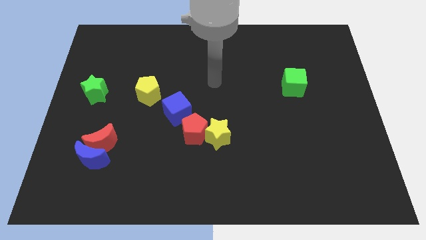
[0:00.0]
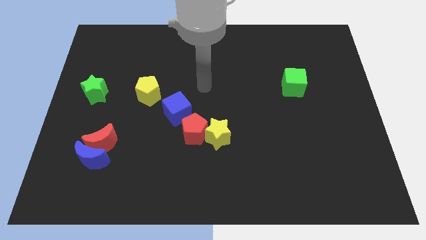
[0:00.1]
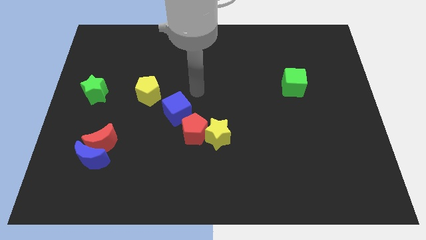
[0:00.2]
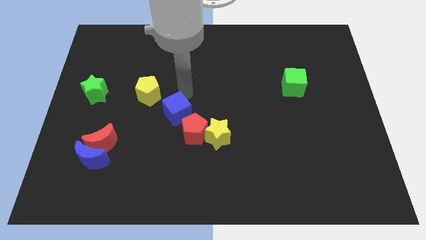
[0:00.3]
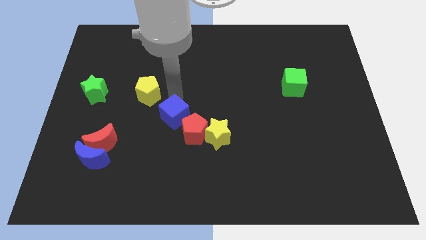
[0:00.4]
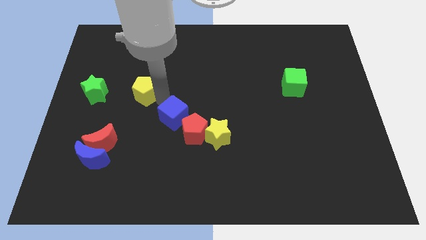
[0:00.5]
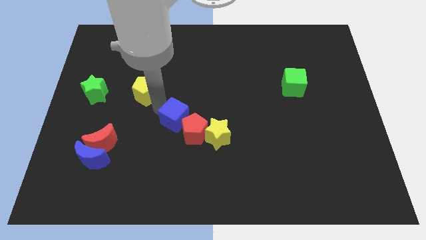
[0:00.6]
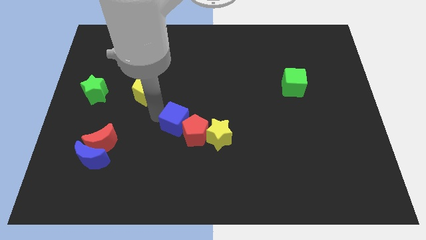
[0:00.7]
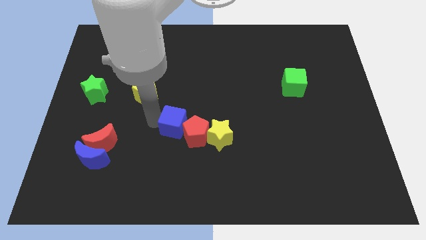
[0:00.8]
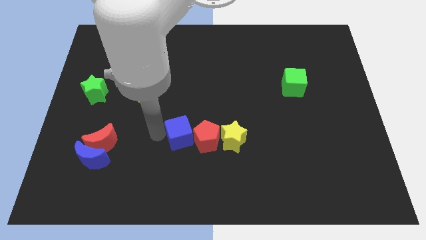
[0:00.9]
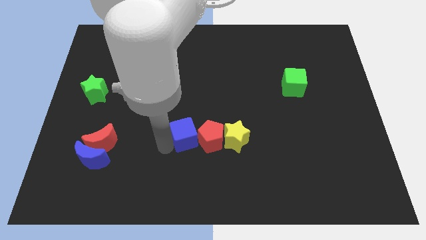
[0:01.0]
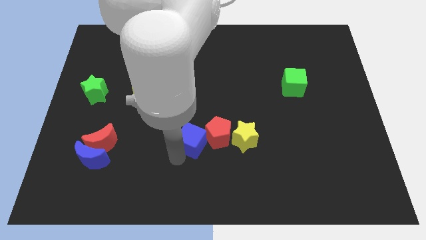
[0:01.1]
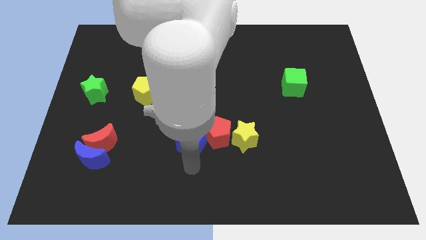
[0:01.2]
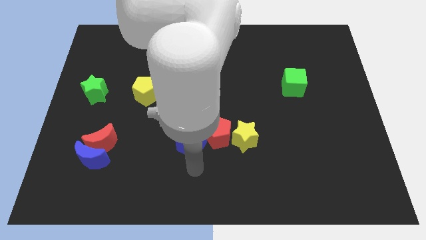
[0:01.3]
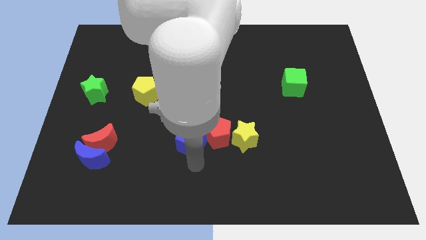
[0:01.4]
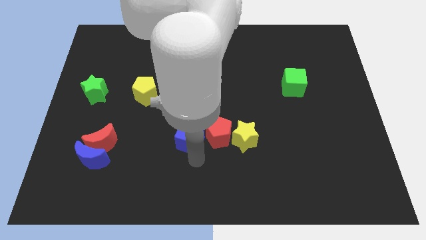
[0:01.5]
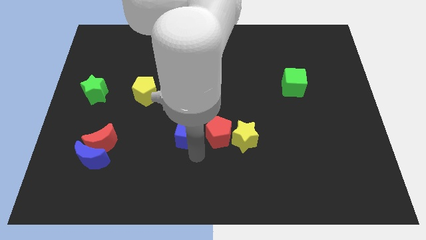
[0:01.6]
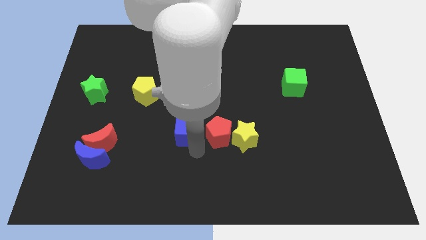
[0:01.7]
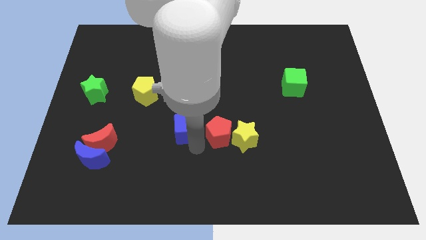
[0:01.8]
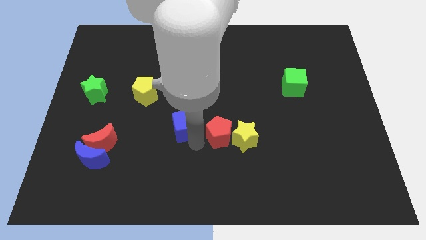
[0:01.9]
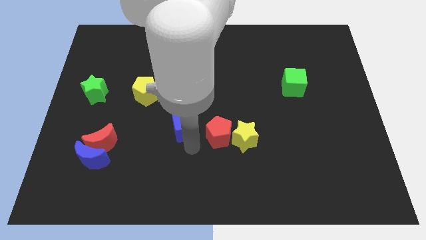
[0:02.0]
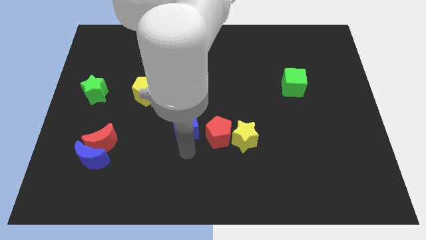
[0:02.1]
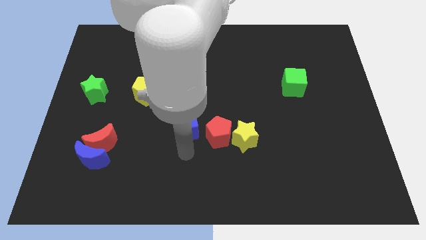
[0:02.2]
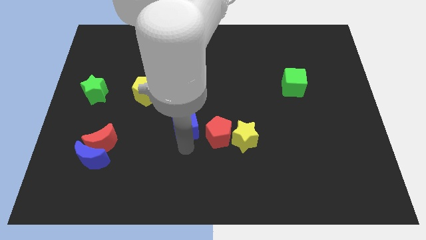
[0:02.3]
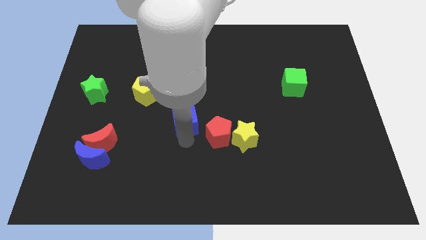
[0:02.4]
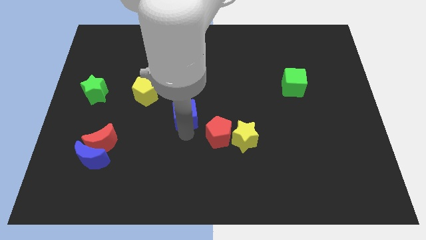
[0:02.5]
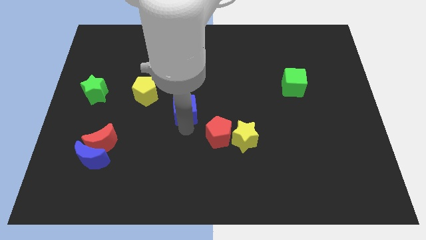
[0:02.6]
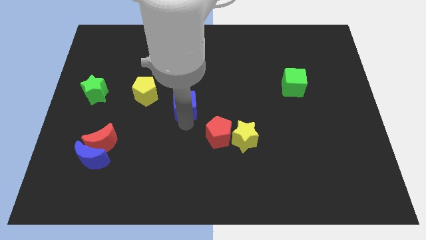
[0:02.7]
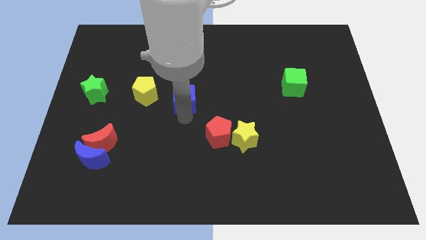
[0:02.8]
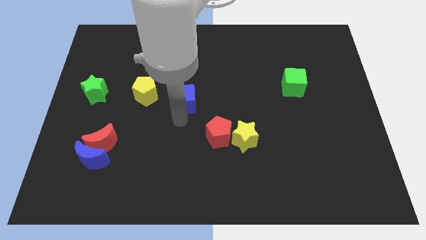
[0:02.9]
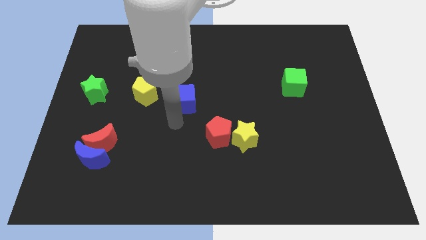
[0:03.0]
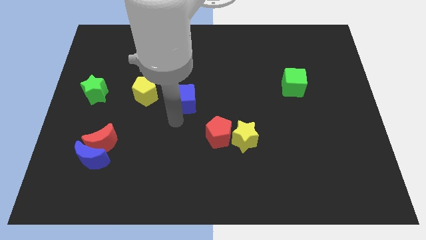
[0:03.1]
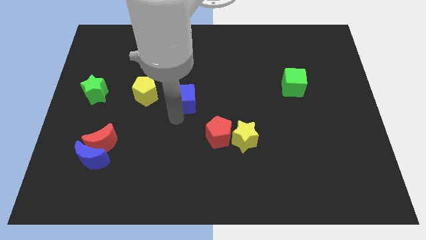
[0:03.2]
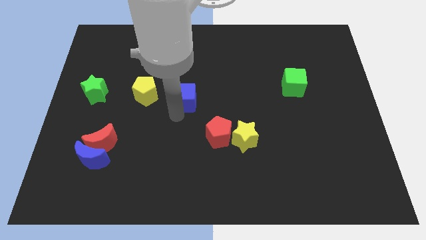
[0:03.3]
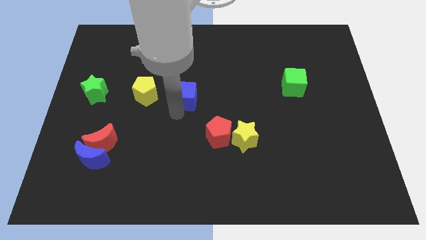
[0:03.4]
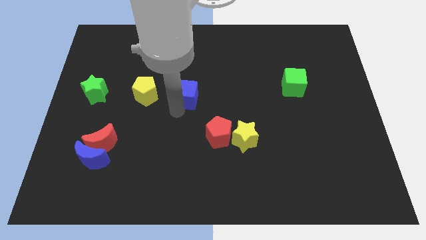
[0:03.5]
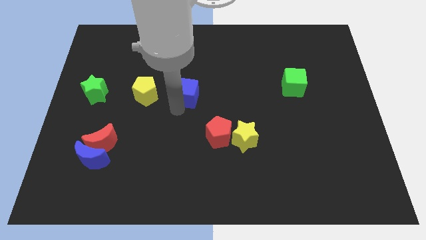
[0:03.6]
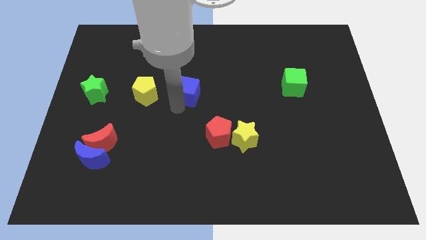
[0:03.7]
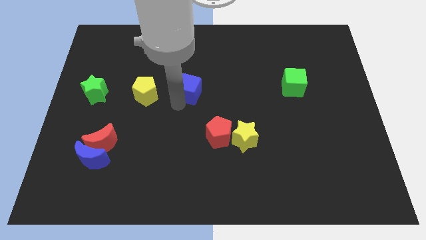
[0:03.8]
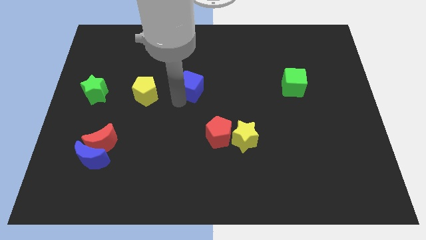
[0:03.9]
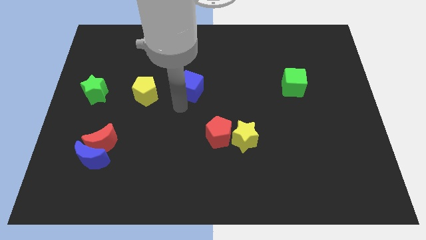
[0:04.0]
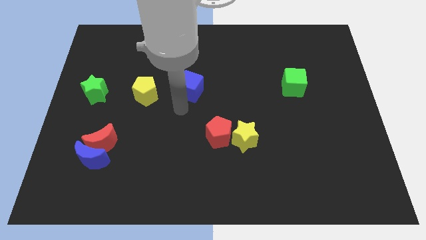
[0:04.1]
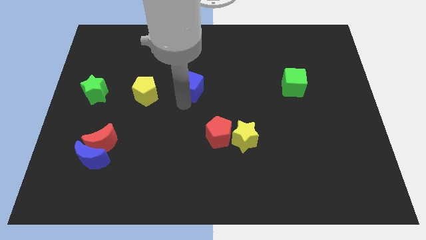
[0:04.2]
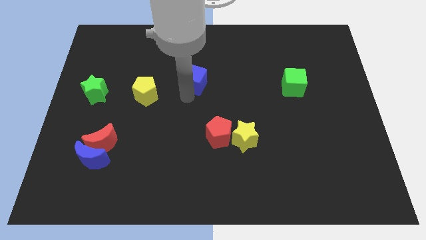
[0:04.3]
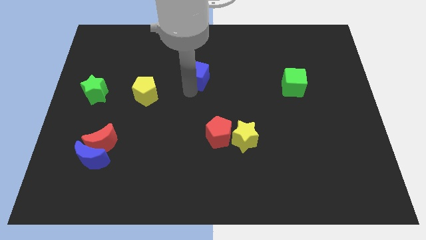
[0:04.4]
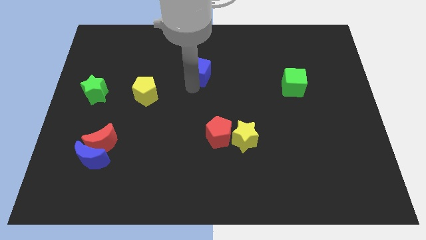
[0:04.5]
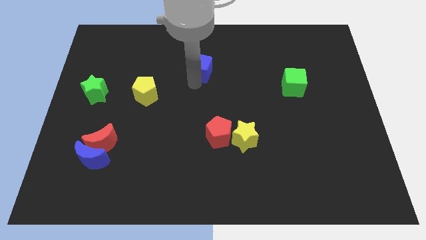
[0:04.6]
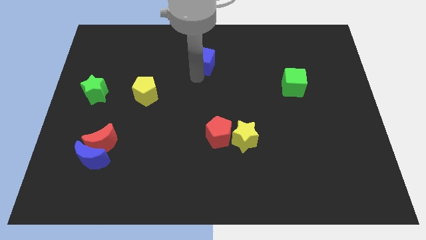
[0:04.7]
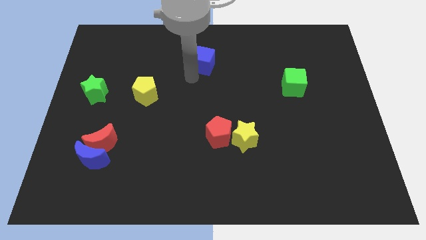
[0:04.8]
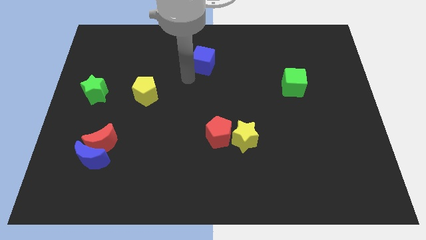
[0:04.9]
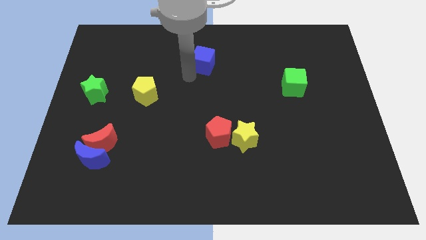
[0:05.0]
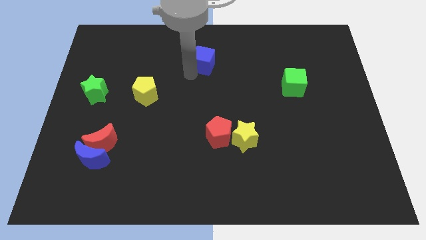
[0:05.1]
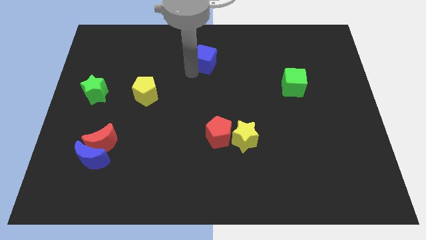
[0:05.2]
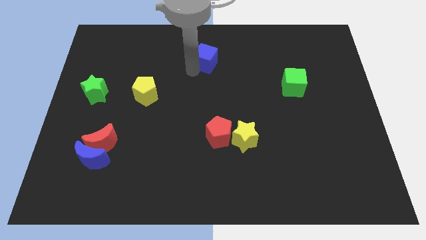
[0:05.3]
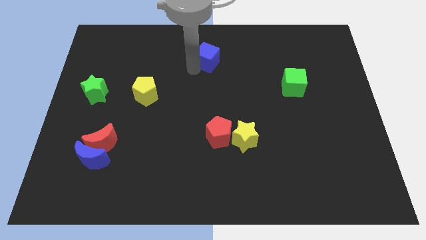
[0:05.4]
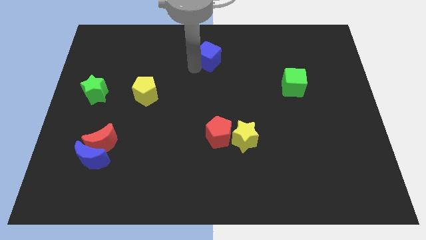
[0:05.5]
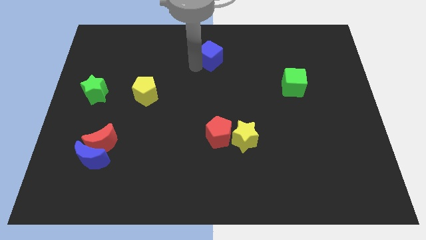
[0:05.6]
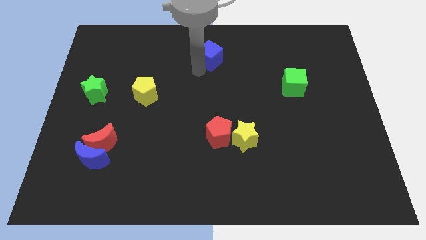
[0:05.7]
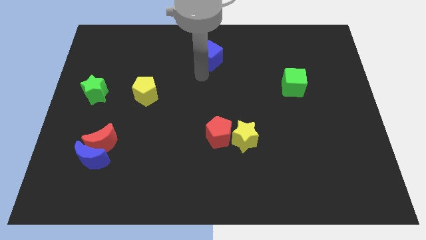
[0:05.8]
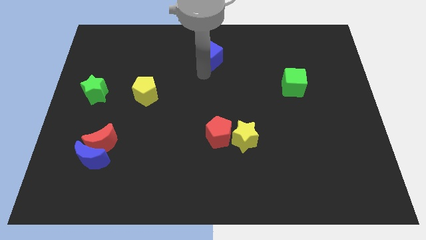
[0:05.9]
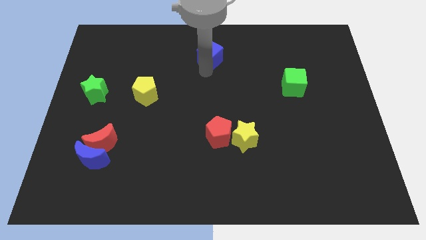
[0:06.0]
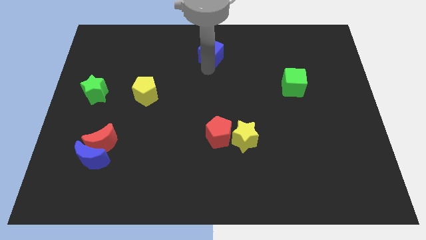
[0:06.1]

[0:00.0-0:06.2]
push the blue cube to the top side

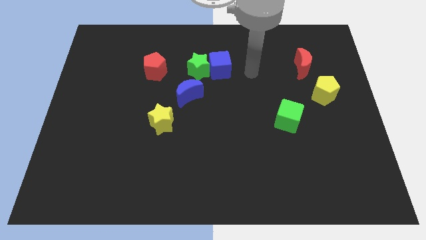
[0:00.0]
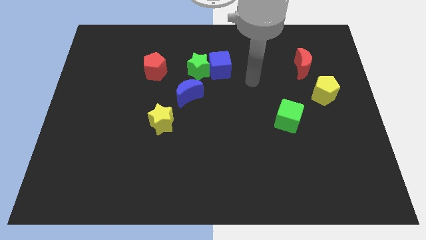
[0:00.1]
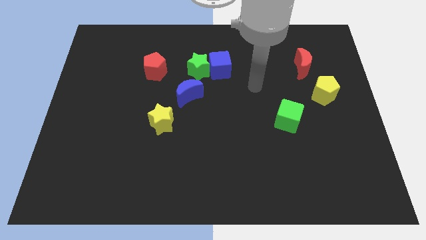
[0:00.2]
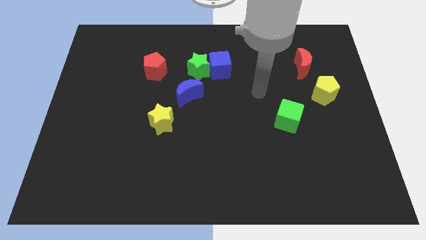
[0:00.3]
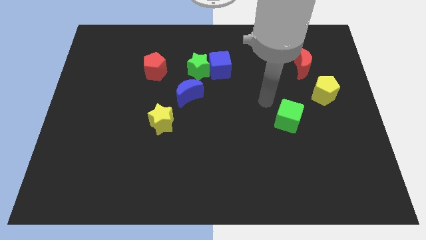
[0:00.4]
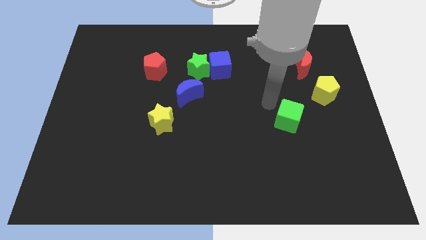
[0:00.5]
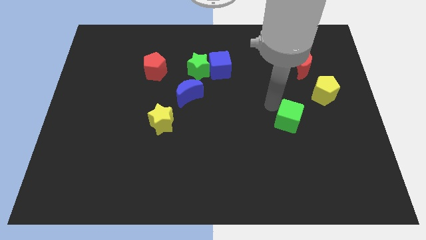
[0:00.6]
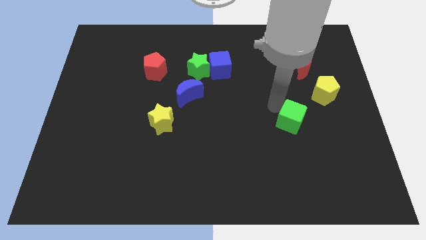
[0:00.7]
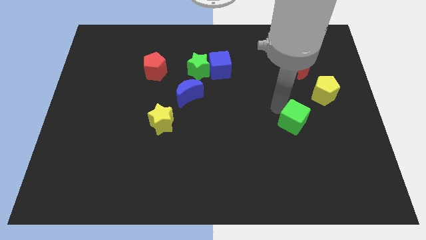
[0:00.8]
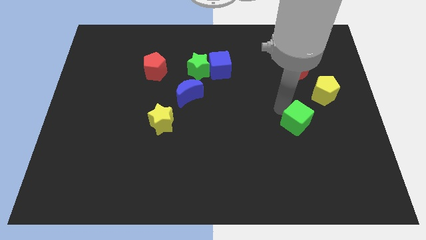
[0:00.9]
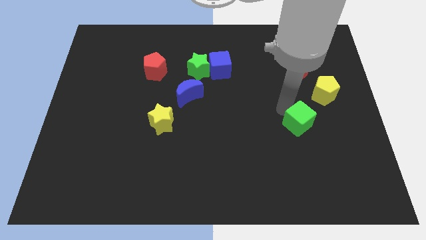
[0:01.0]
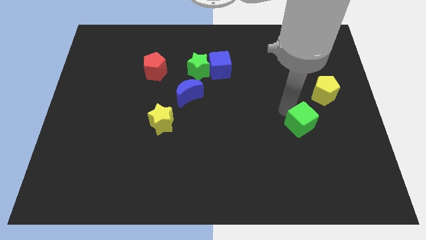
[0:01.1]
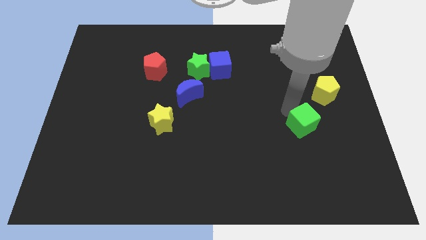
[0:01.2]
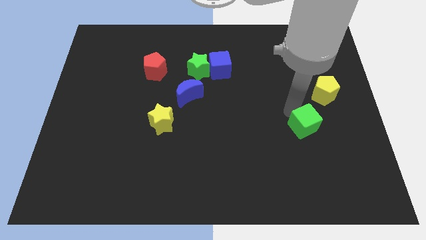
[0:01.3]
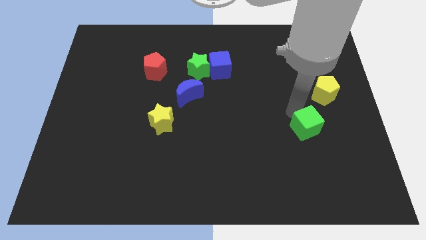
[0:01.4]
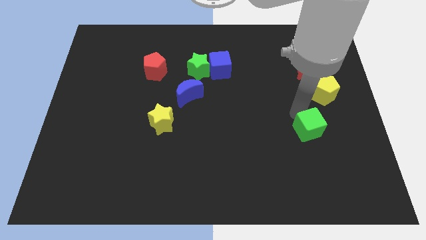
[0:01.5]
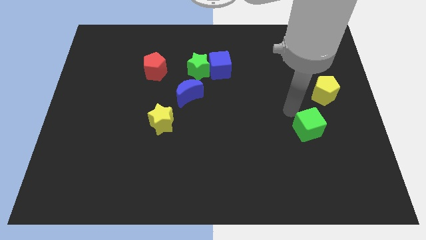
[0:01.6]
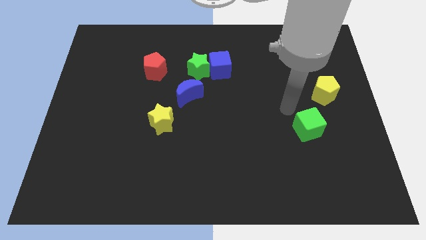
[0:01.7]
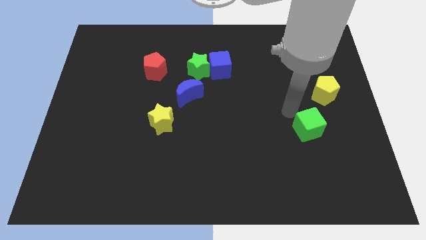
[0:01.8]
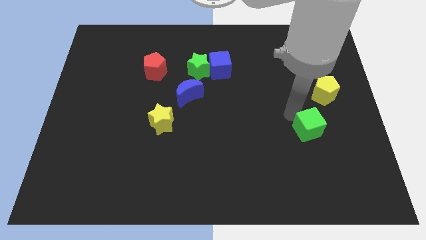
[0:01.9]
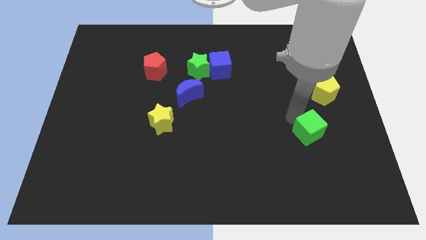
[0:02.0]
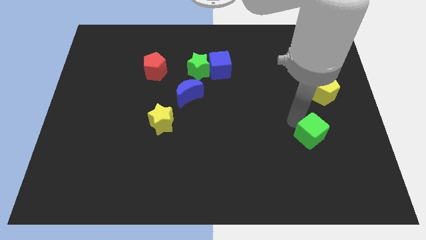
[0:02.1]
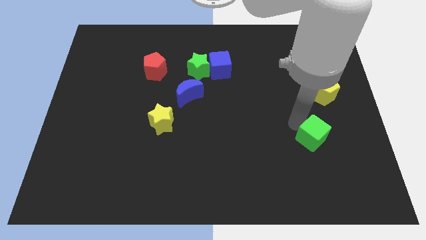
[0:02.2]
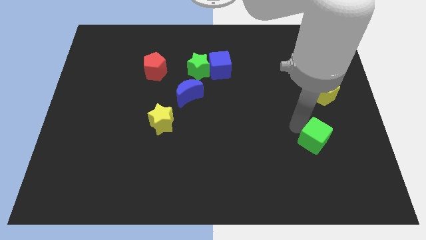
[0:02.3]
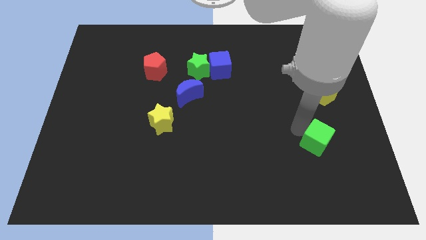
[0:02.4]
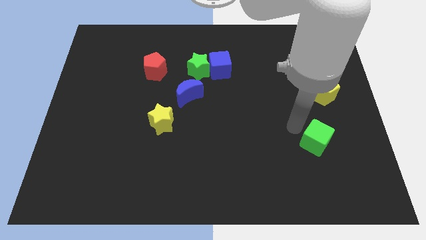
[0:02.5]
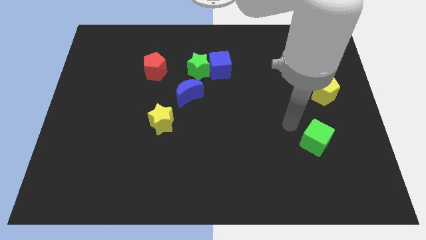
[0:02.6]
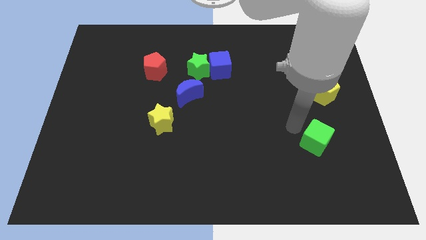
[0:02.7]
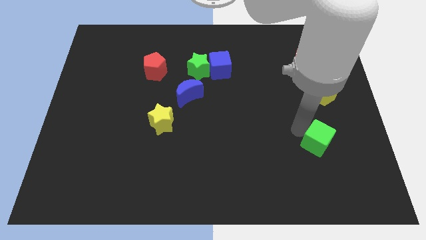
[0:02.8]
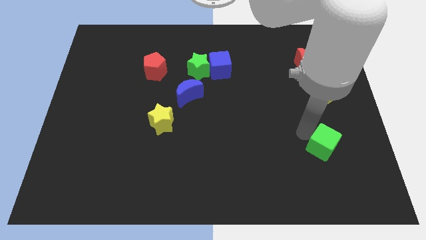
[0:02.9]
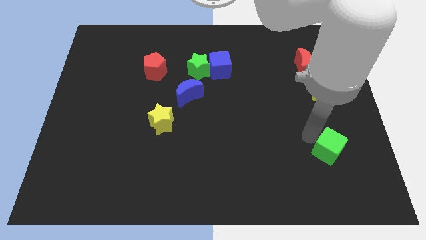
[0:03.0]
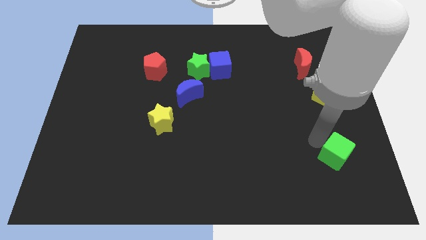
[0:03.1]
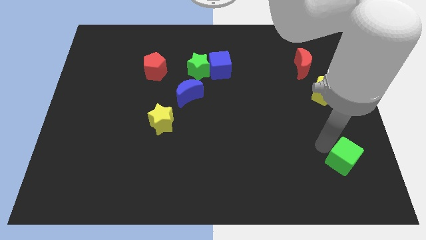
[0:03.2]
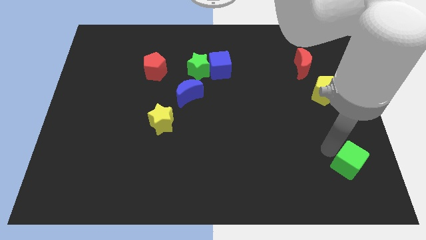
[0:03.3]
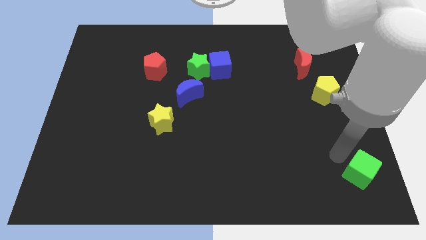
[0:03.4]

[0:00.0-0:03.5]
put the green cube to the lower right corner
